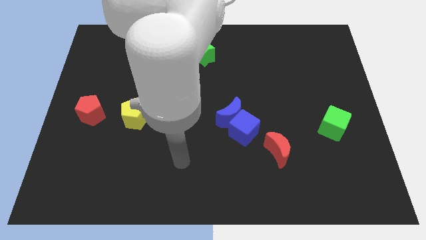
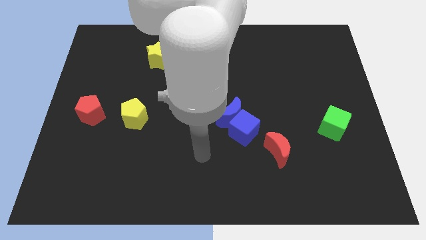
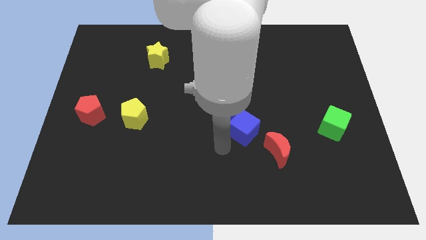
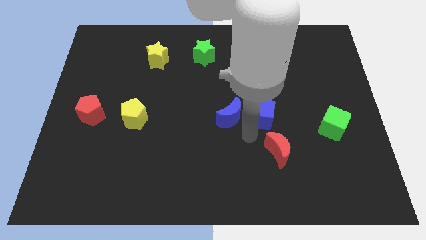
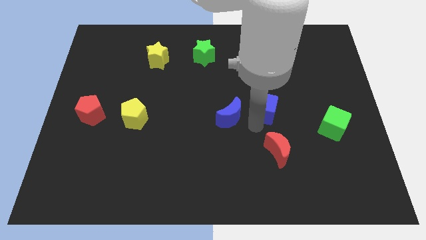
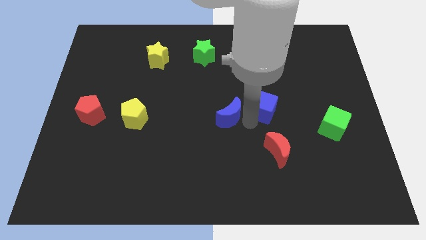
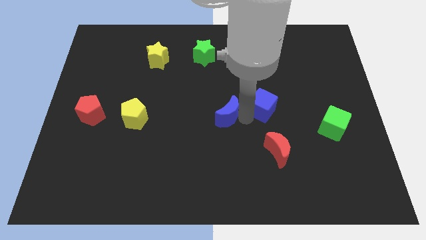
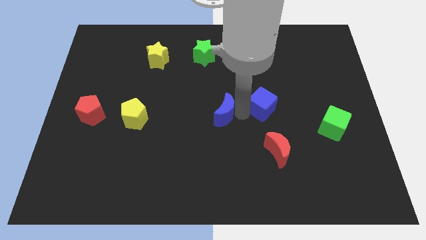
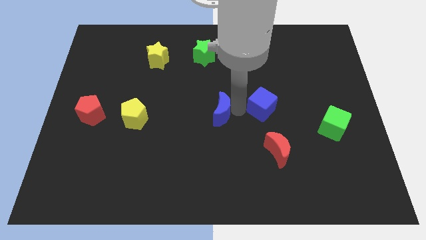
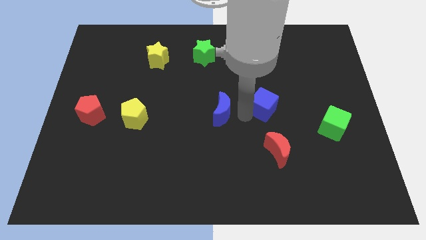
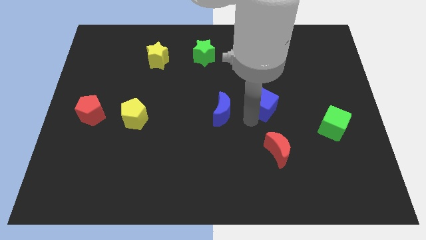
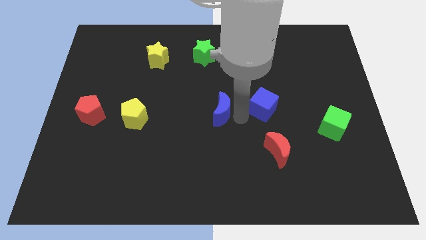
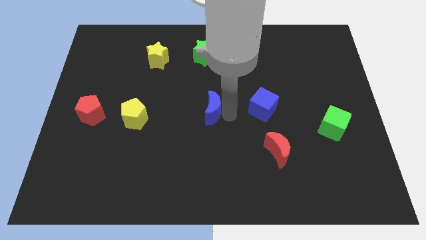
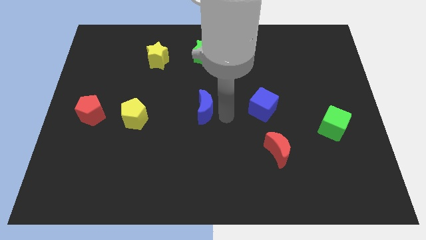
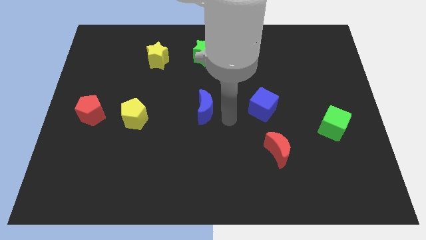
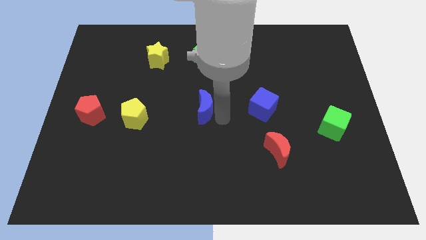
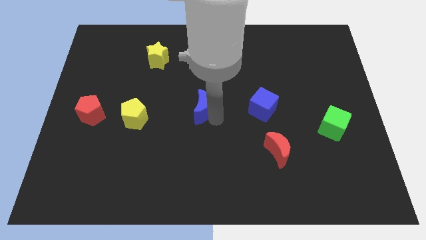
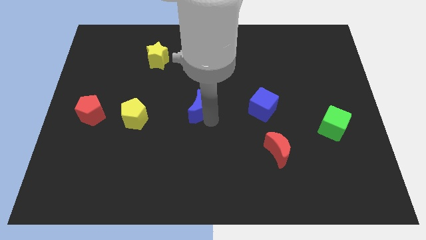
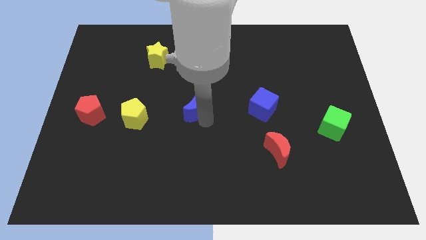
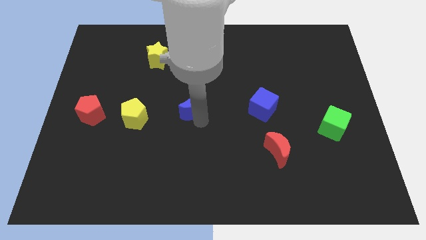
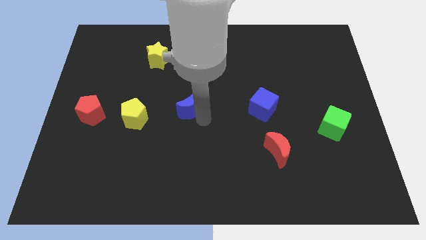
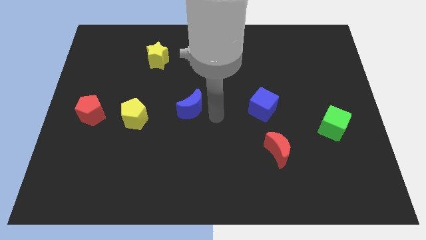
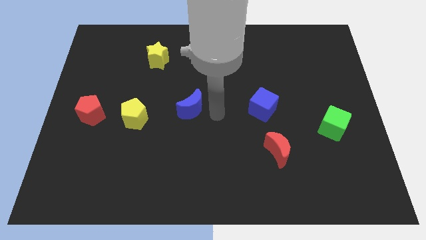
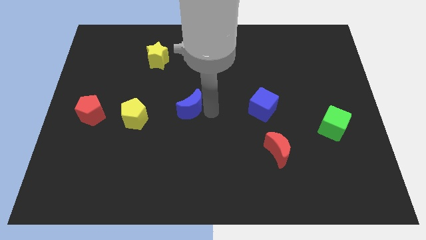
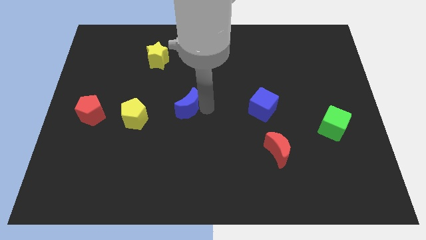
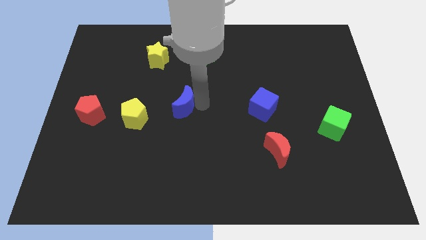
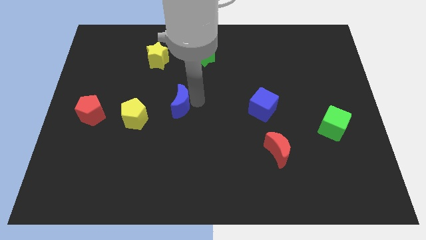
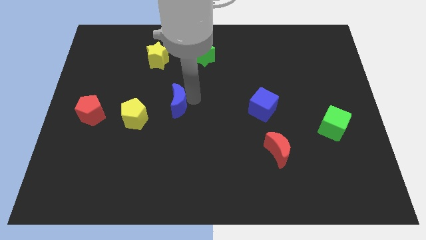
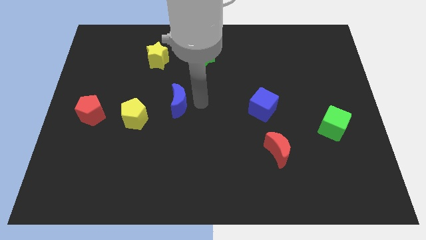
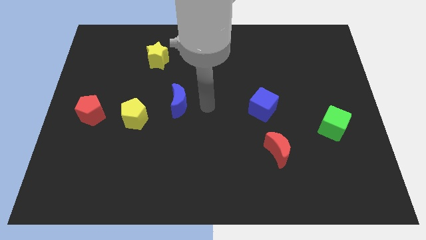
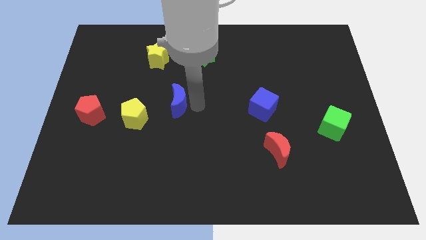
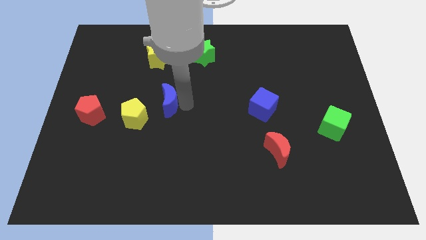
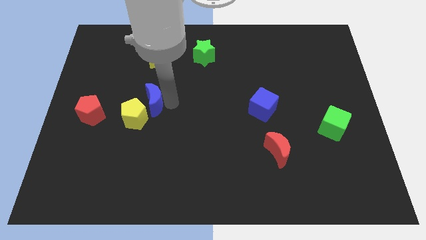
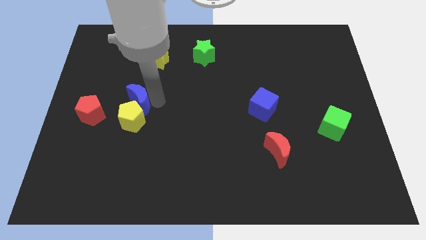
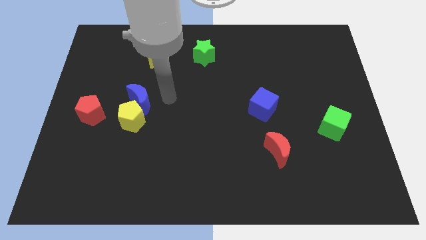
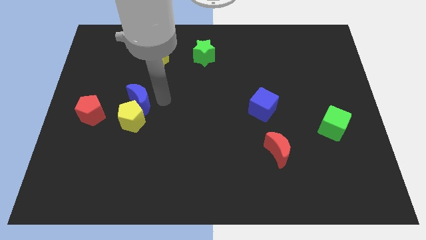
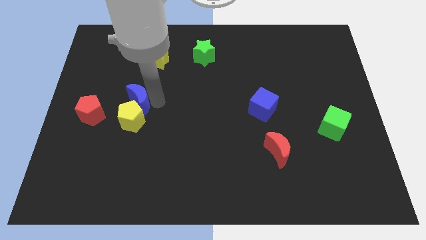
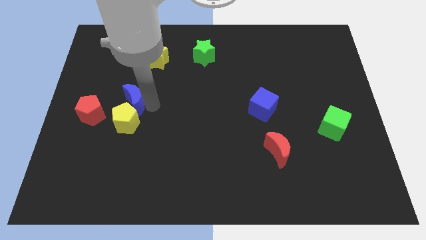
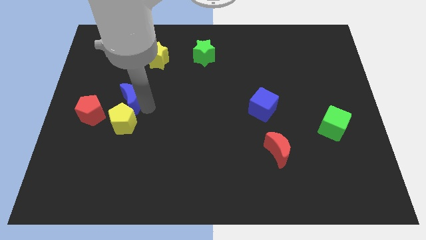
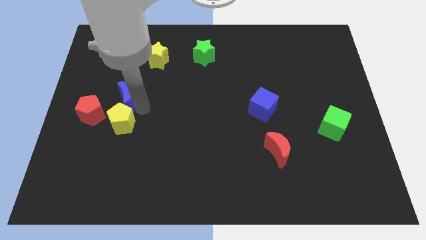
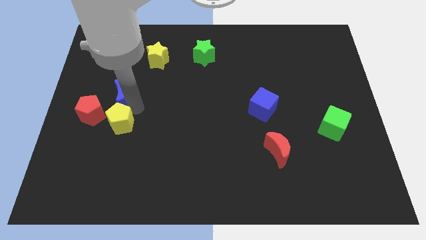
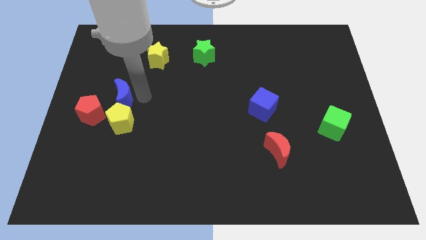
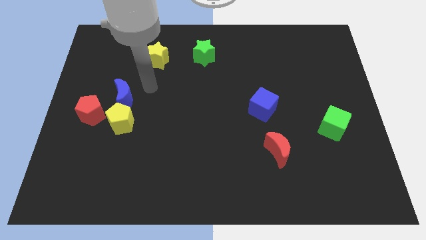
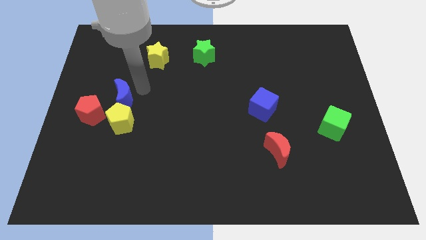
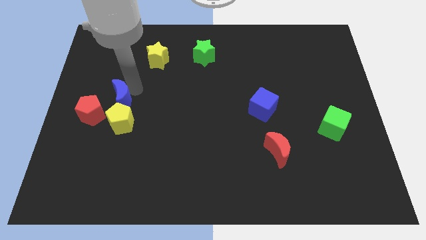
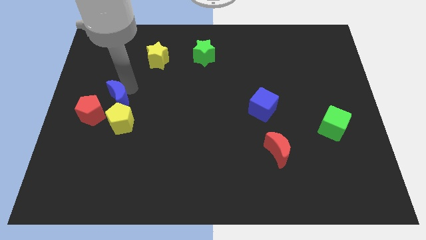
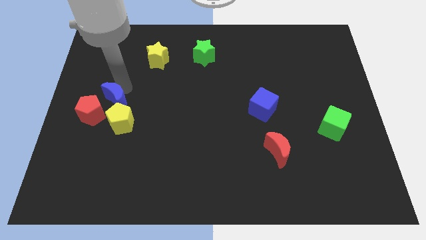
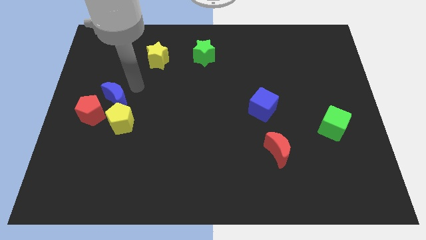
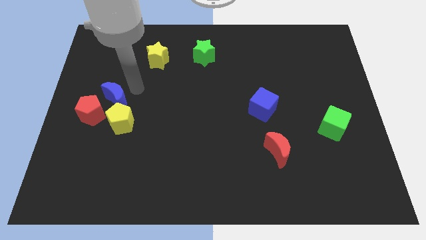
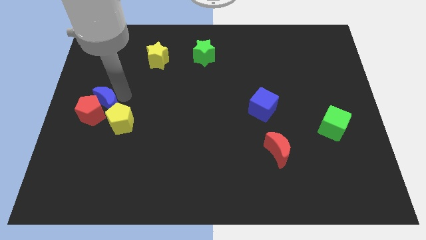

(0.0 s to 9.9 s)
slide the blue moon next to the red pentagon

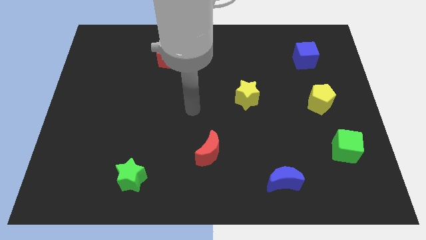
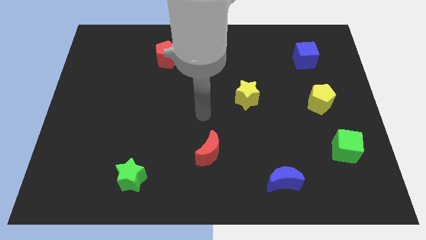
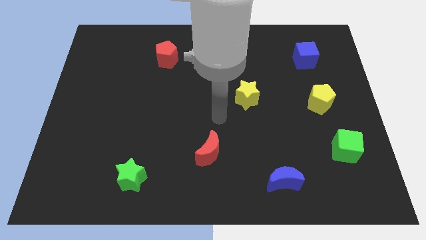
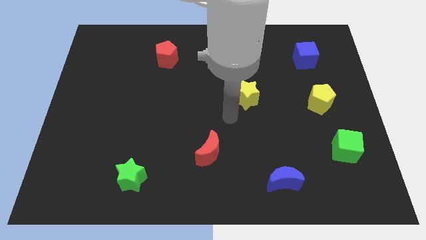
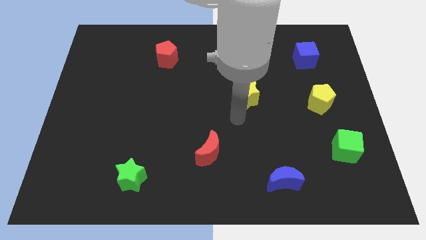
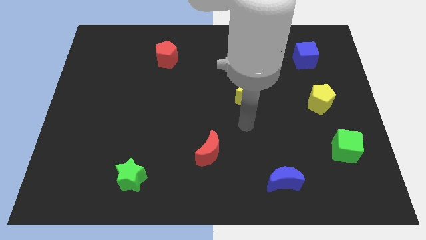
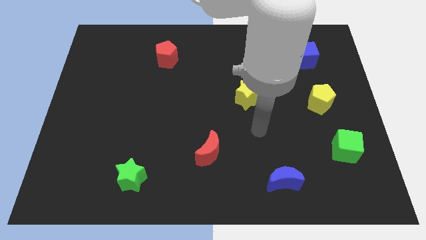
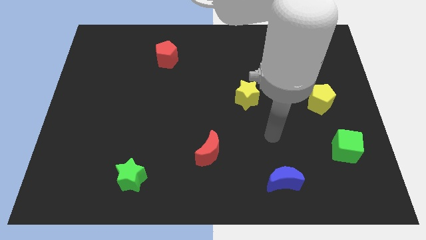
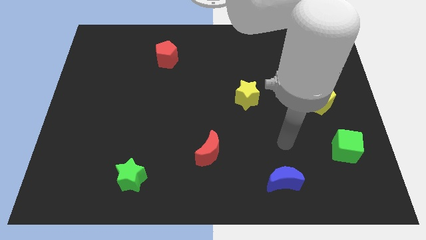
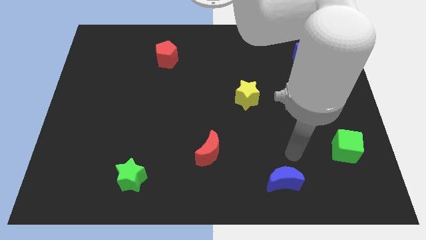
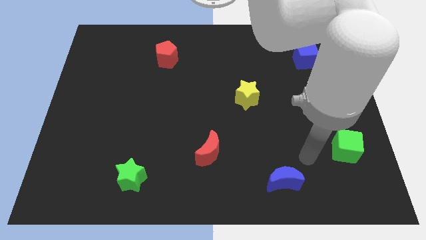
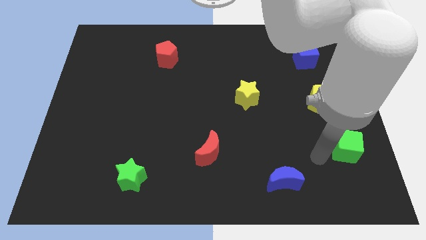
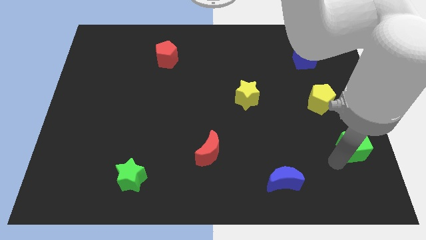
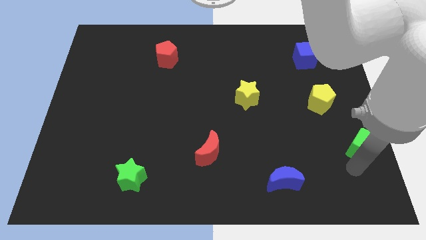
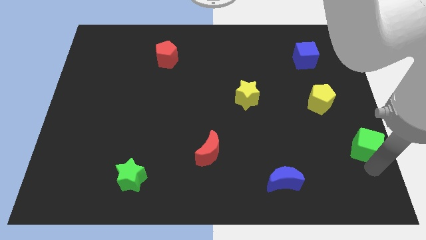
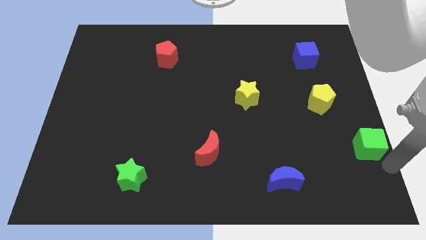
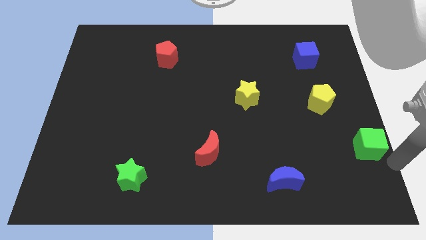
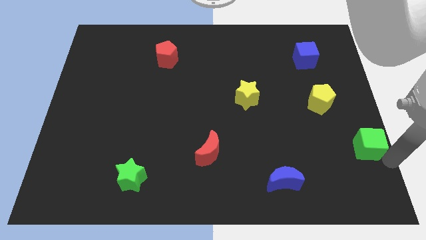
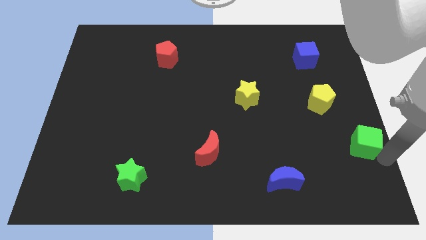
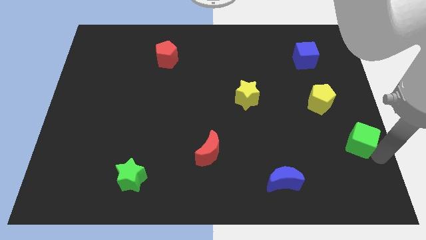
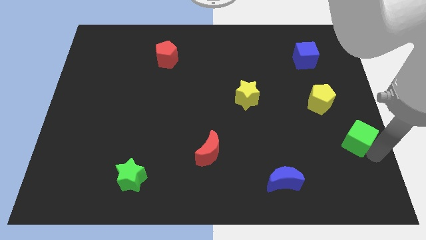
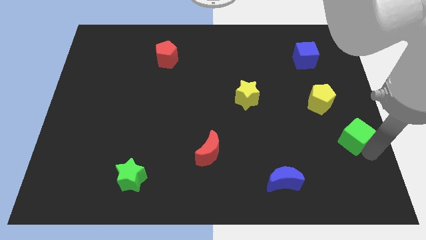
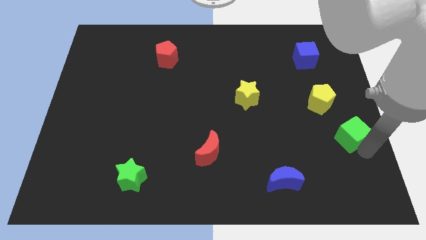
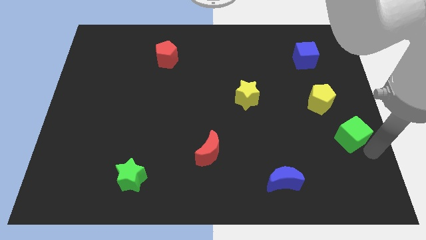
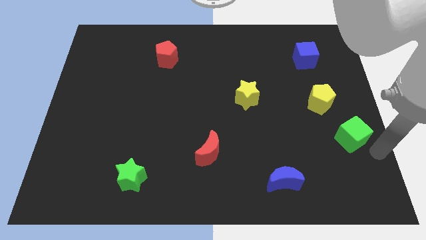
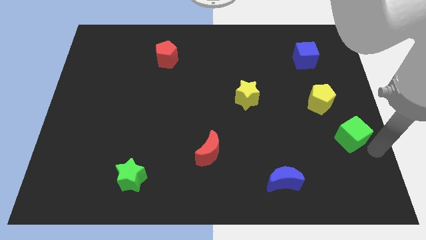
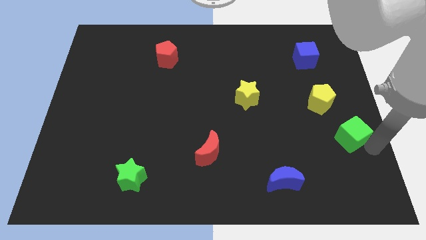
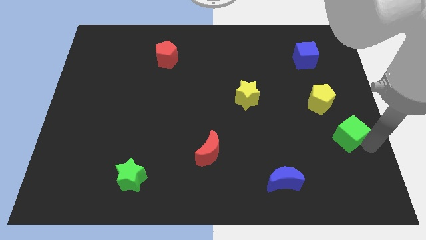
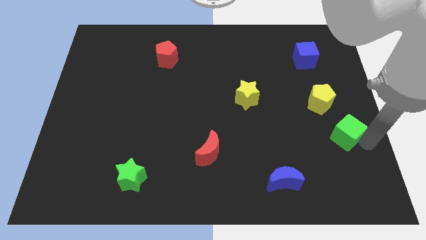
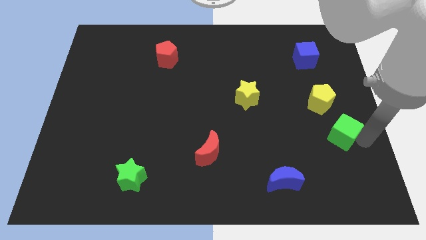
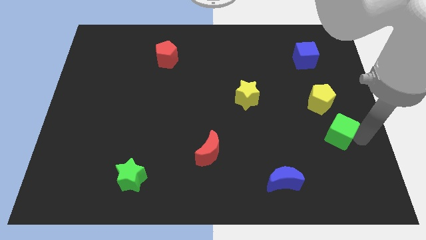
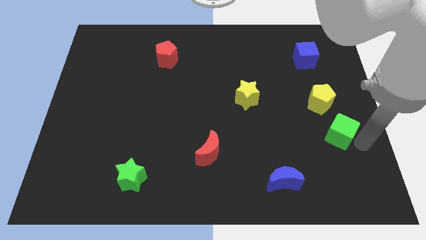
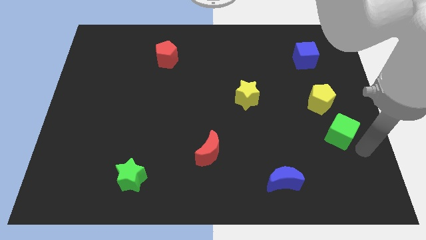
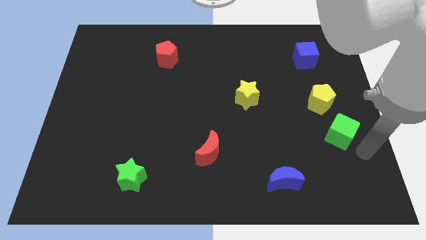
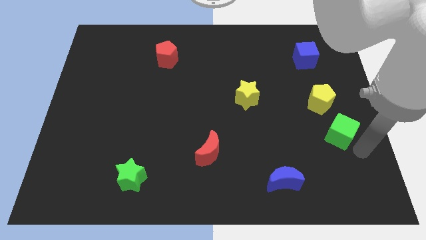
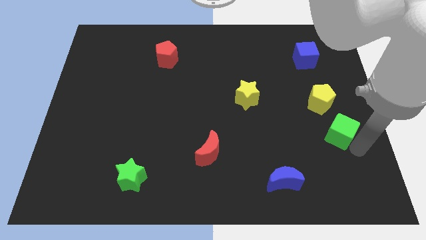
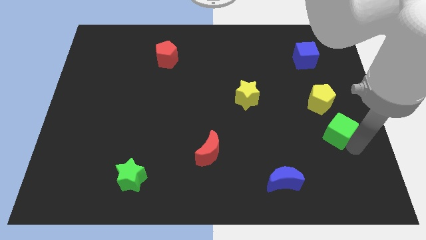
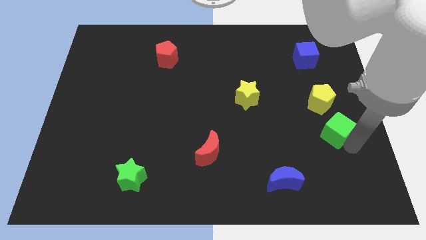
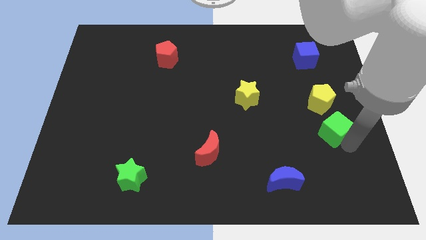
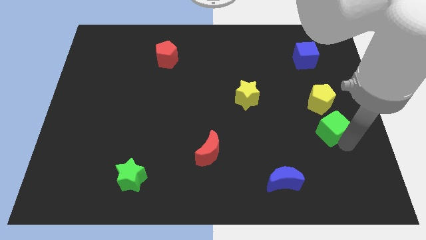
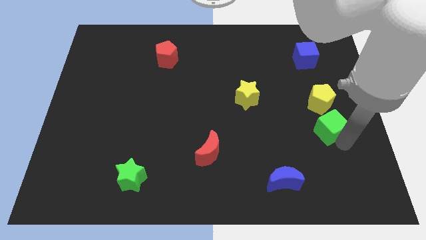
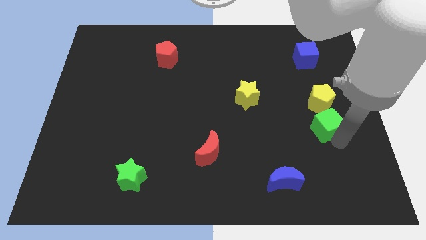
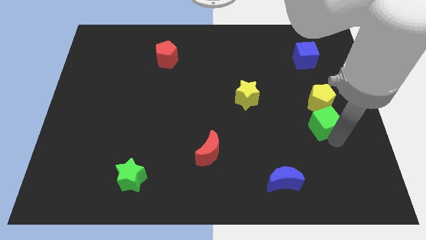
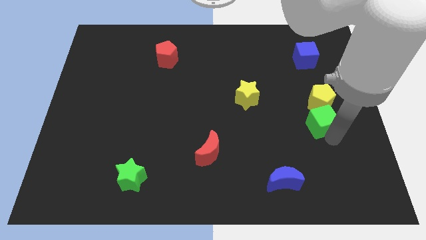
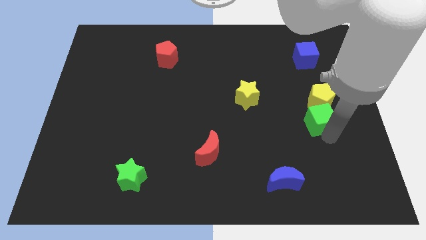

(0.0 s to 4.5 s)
move the green cube close to the yellow pentagon
